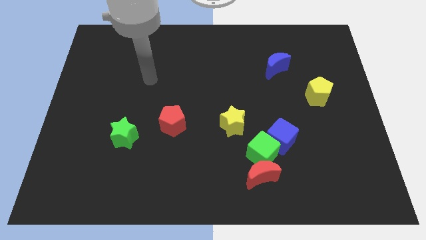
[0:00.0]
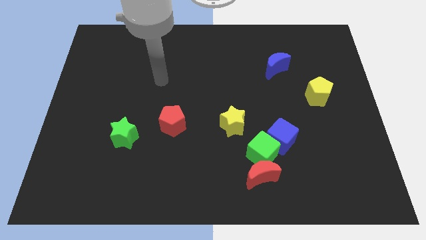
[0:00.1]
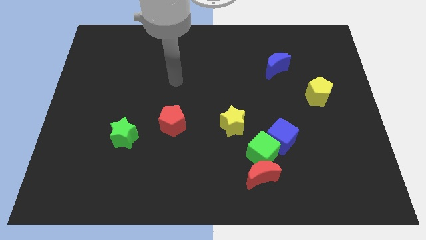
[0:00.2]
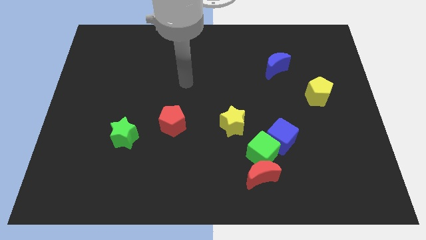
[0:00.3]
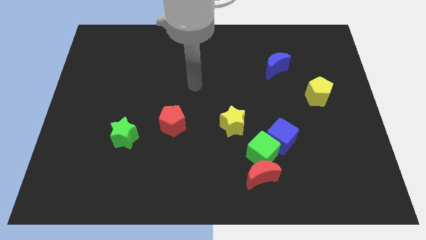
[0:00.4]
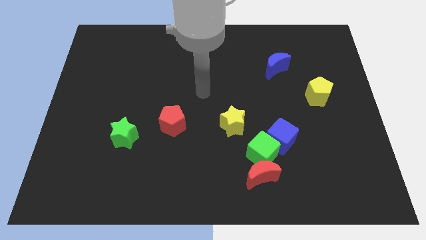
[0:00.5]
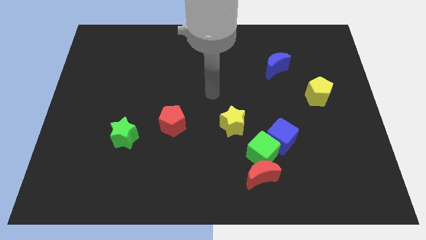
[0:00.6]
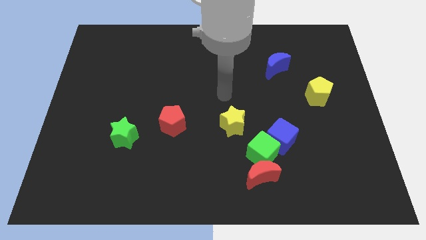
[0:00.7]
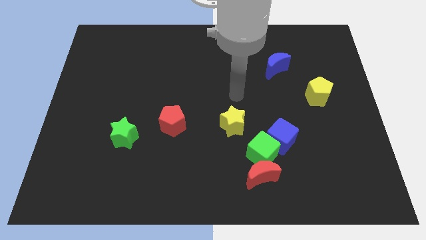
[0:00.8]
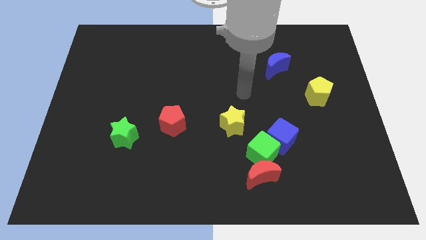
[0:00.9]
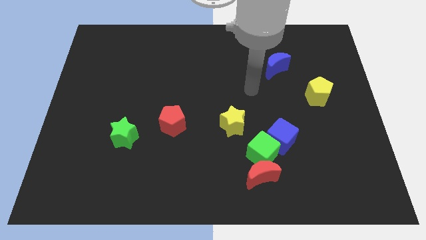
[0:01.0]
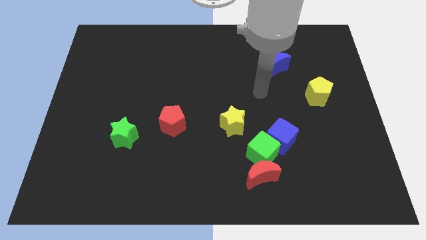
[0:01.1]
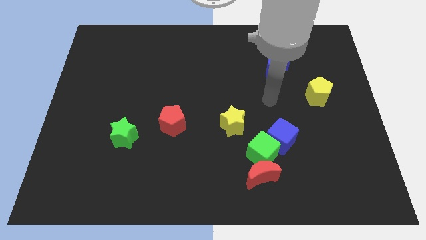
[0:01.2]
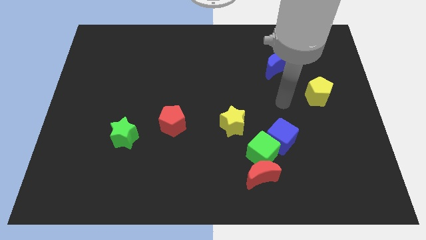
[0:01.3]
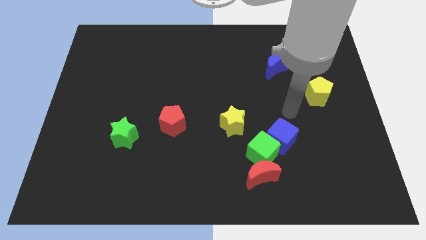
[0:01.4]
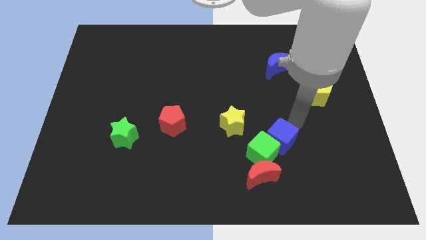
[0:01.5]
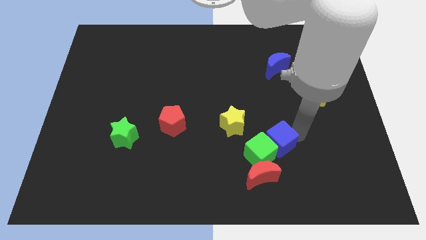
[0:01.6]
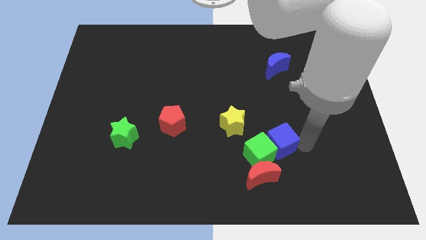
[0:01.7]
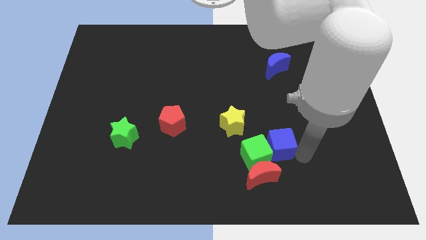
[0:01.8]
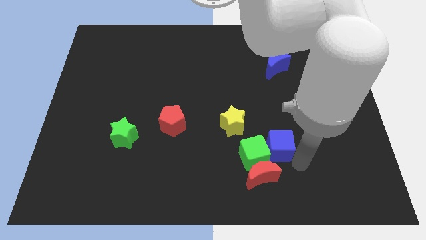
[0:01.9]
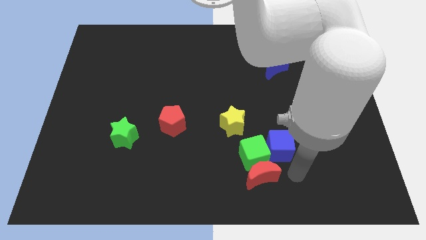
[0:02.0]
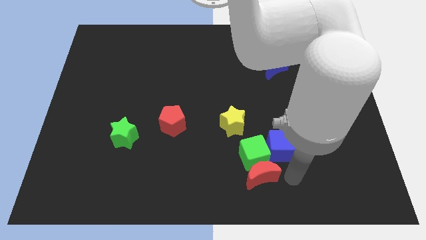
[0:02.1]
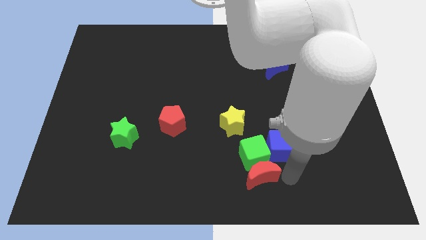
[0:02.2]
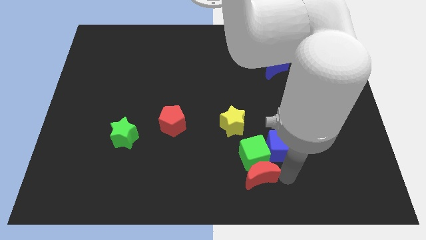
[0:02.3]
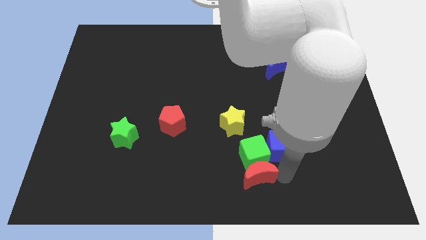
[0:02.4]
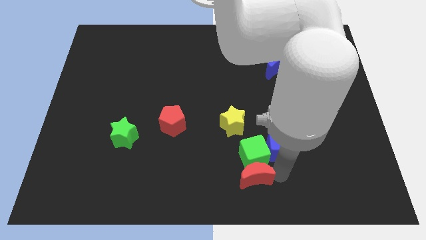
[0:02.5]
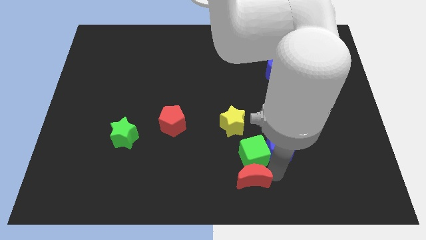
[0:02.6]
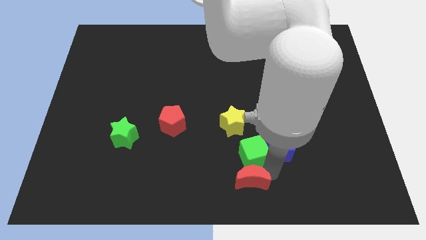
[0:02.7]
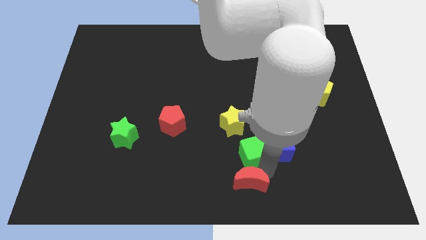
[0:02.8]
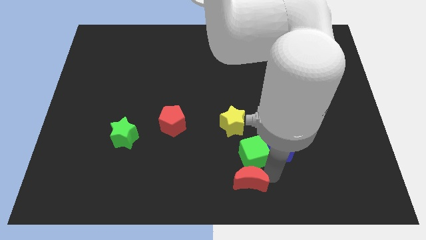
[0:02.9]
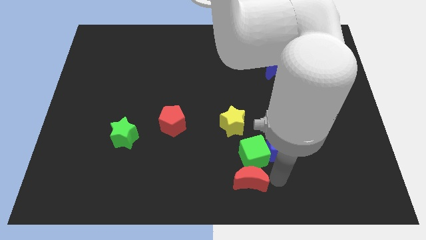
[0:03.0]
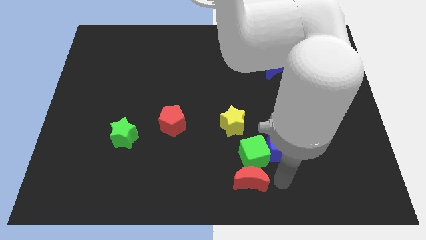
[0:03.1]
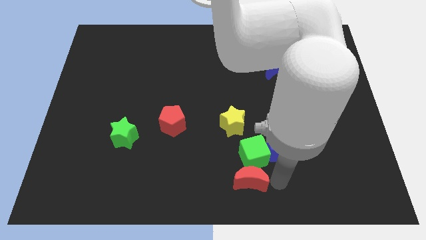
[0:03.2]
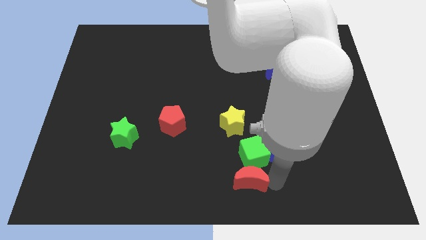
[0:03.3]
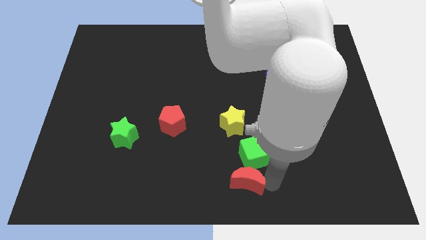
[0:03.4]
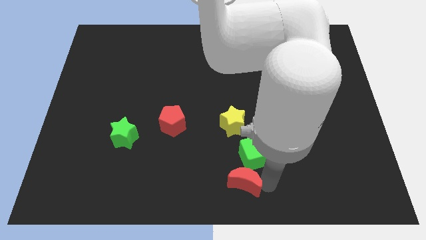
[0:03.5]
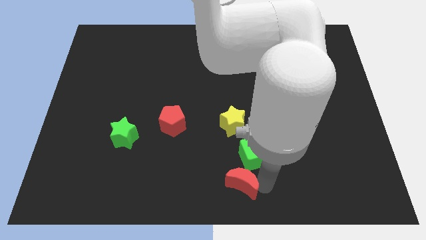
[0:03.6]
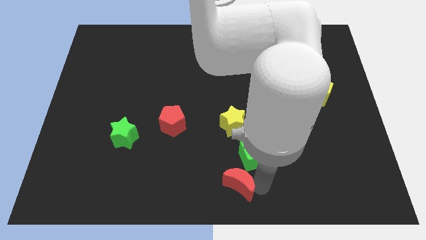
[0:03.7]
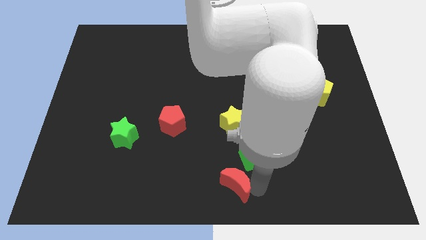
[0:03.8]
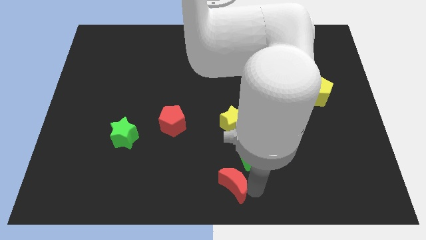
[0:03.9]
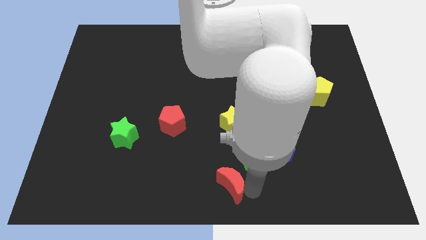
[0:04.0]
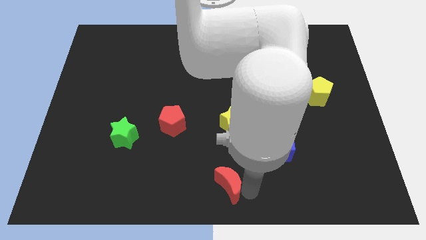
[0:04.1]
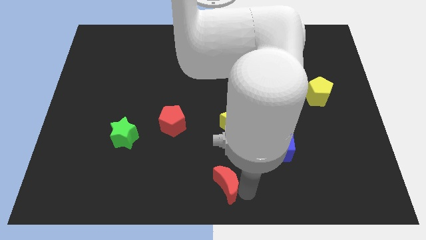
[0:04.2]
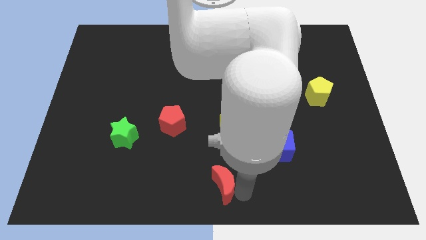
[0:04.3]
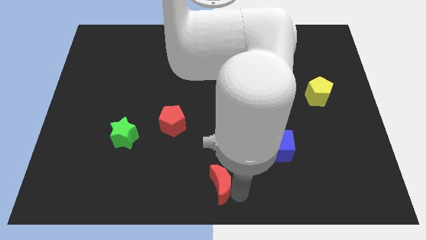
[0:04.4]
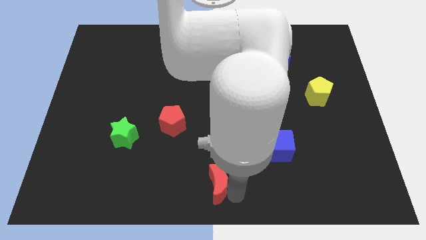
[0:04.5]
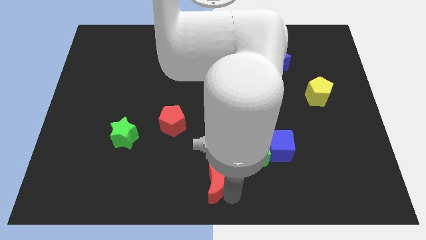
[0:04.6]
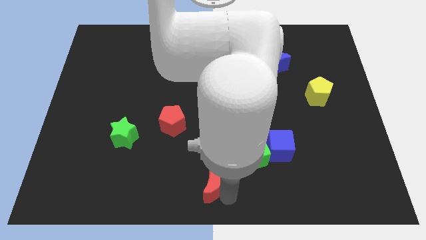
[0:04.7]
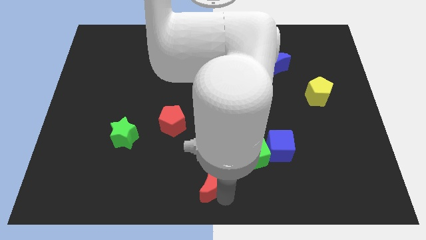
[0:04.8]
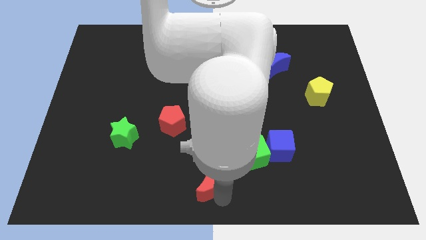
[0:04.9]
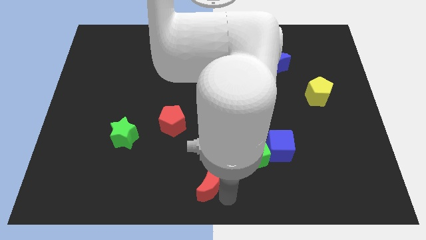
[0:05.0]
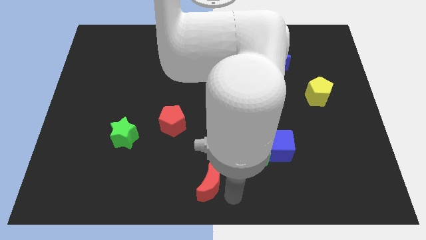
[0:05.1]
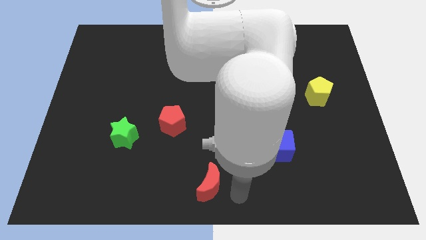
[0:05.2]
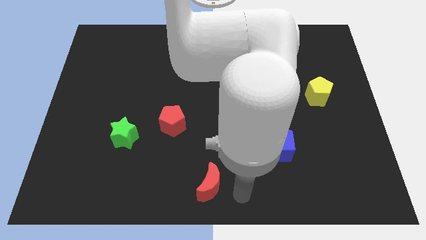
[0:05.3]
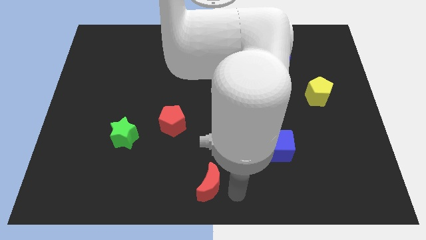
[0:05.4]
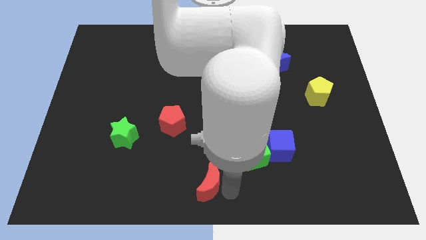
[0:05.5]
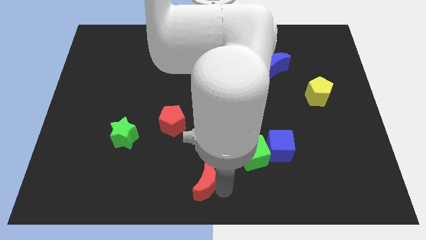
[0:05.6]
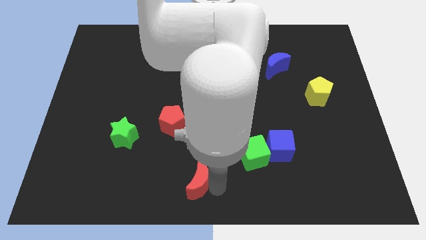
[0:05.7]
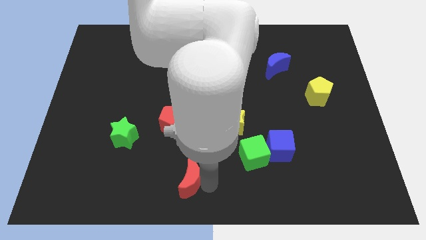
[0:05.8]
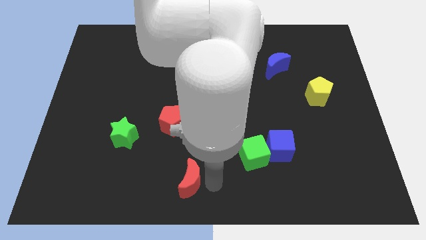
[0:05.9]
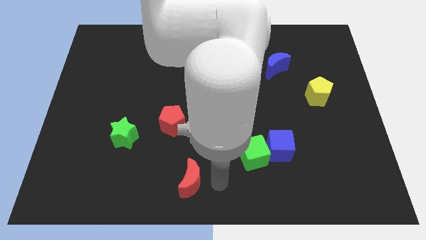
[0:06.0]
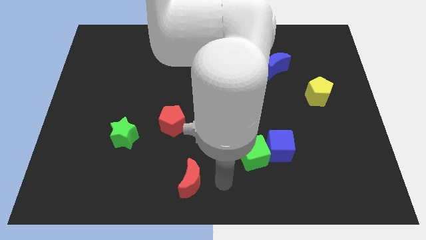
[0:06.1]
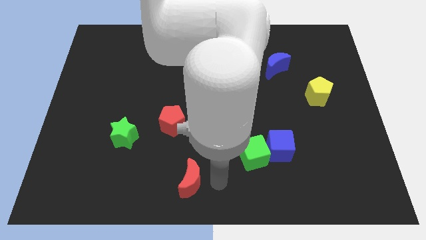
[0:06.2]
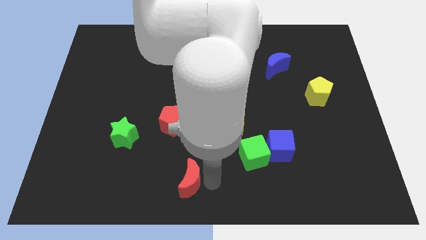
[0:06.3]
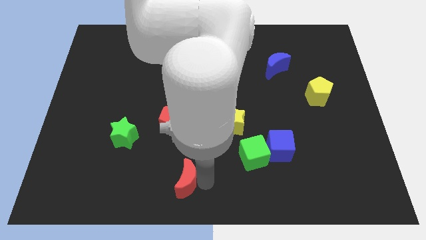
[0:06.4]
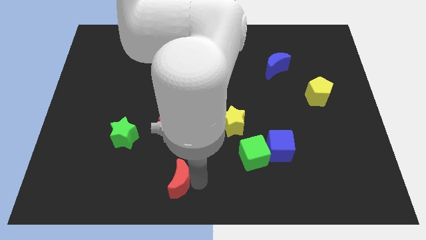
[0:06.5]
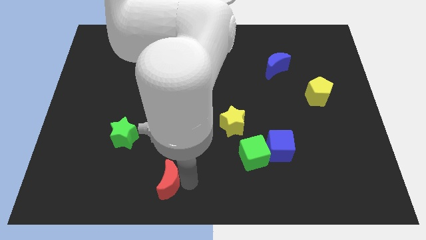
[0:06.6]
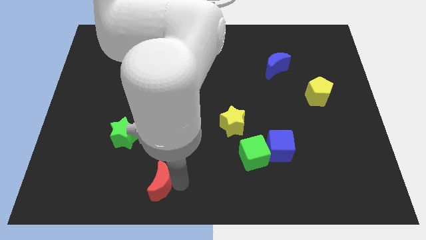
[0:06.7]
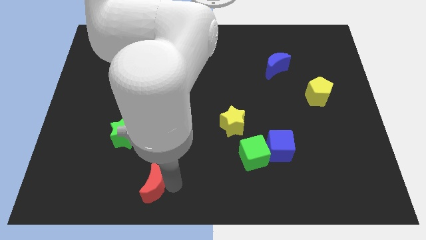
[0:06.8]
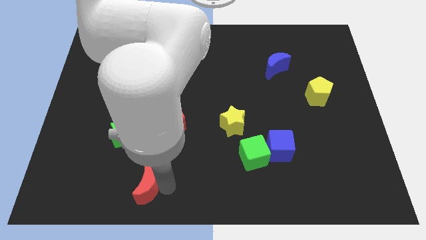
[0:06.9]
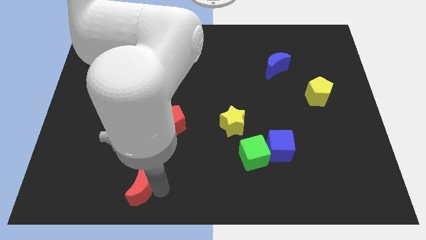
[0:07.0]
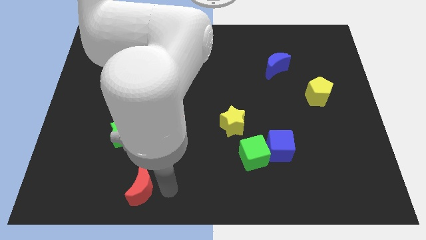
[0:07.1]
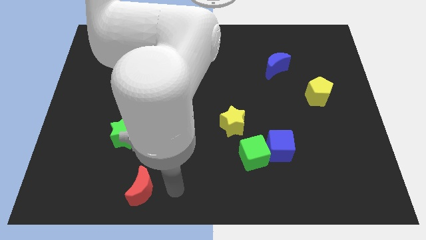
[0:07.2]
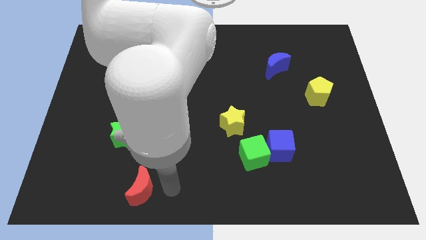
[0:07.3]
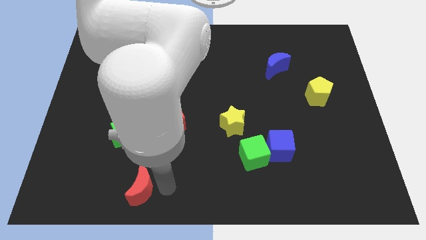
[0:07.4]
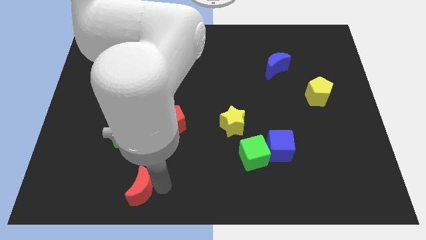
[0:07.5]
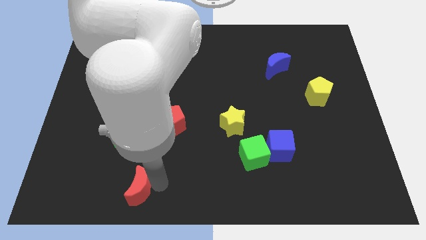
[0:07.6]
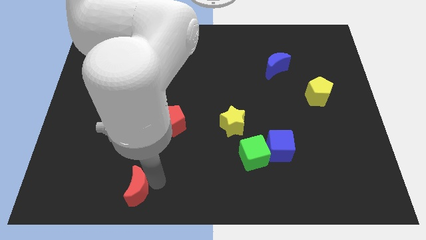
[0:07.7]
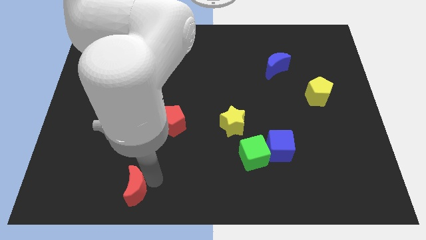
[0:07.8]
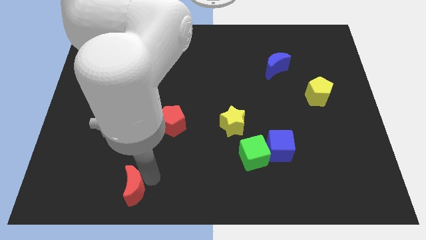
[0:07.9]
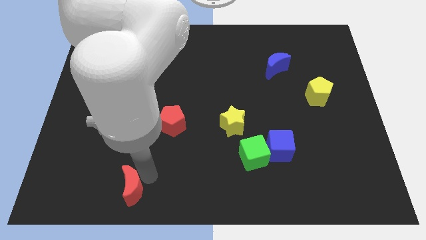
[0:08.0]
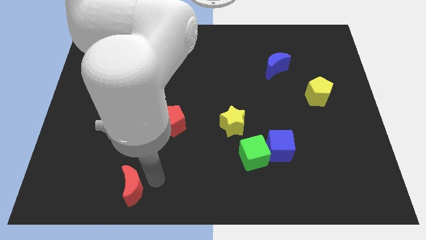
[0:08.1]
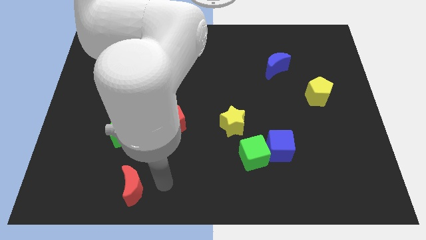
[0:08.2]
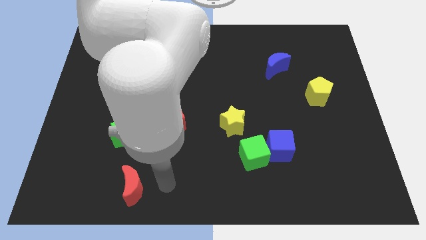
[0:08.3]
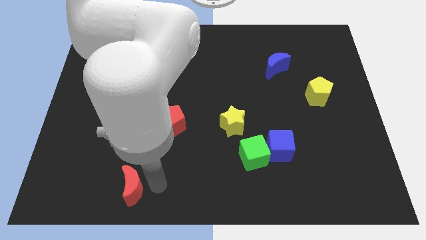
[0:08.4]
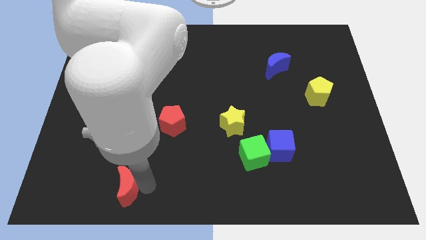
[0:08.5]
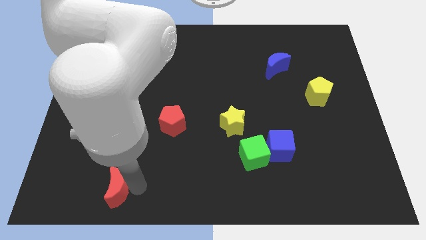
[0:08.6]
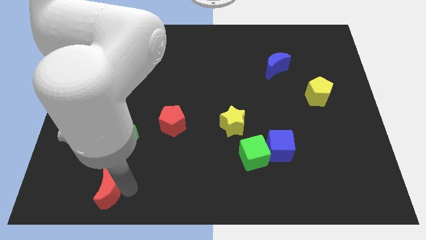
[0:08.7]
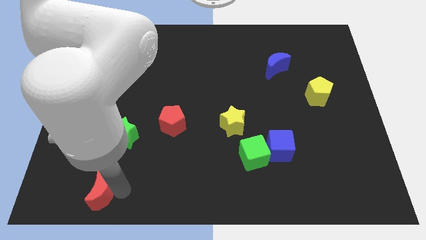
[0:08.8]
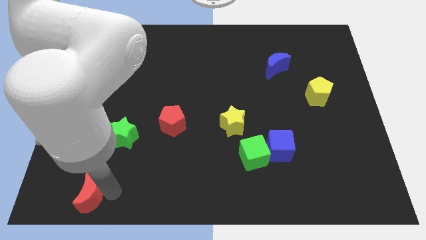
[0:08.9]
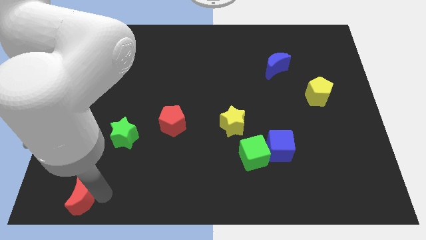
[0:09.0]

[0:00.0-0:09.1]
slide the red moon to the bottom left
